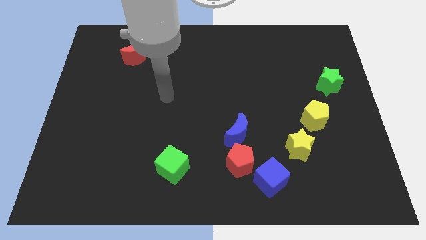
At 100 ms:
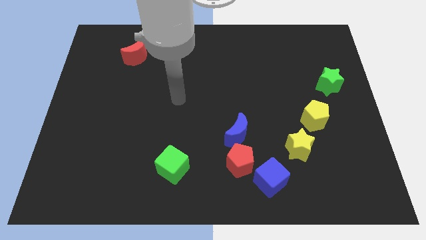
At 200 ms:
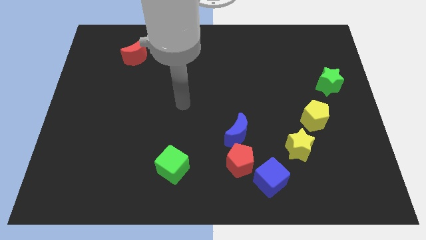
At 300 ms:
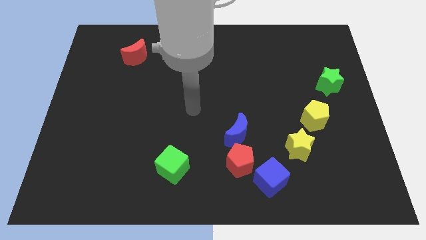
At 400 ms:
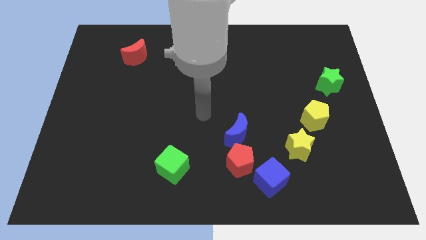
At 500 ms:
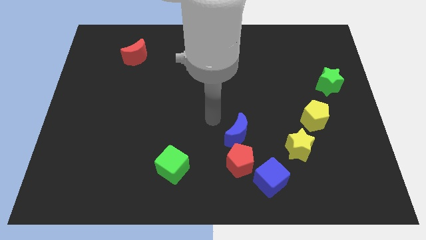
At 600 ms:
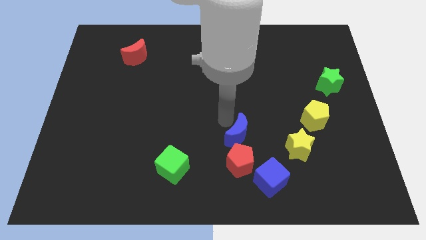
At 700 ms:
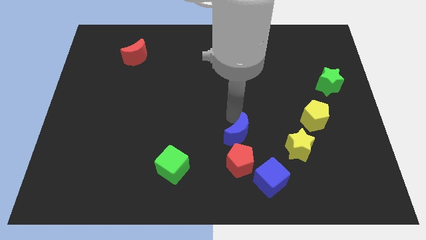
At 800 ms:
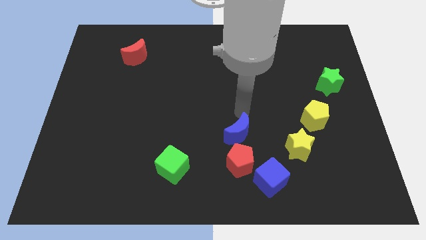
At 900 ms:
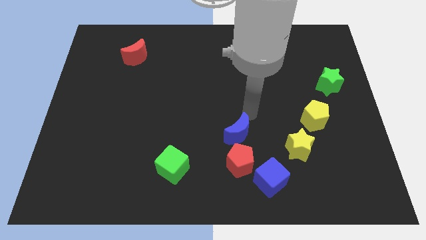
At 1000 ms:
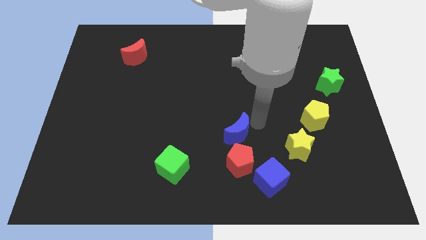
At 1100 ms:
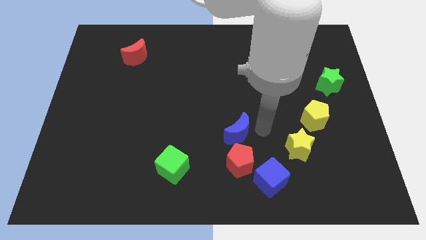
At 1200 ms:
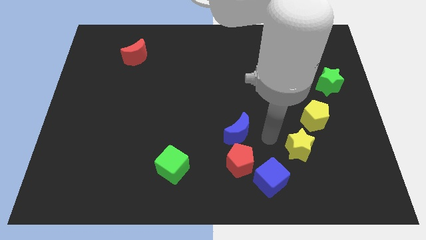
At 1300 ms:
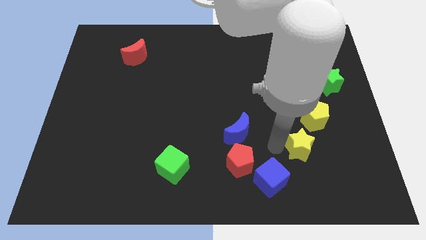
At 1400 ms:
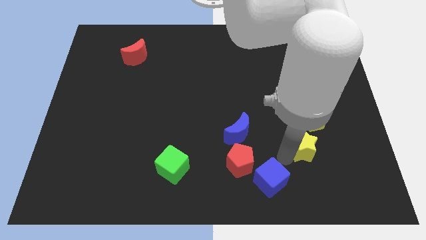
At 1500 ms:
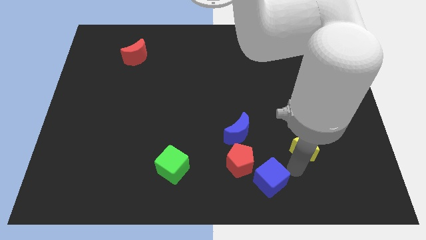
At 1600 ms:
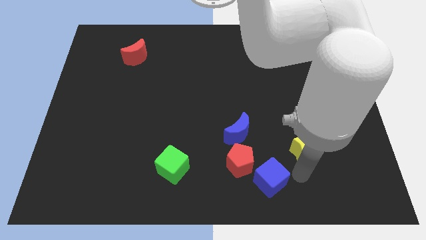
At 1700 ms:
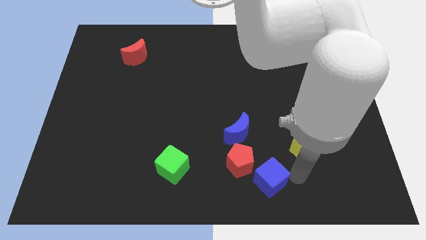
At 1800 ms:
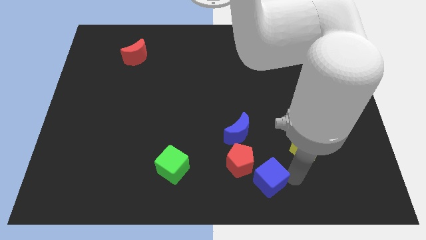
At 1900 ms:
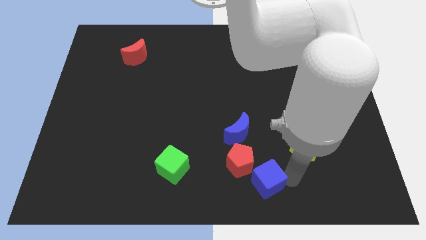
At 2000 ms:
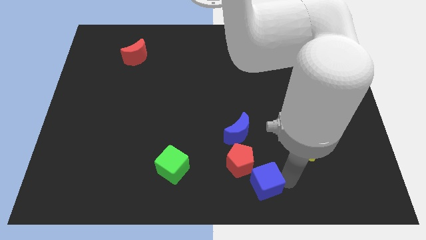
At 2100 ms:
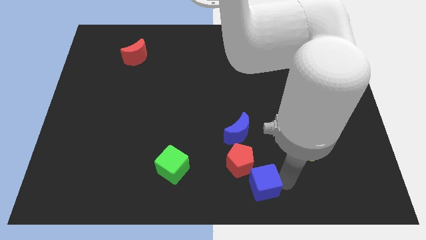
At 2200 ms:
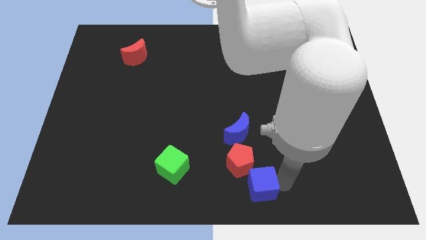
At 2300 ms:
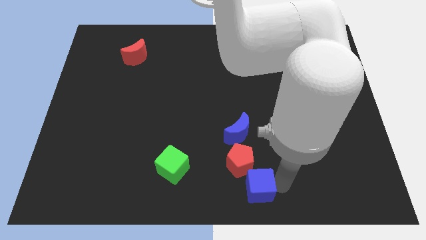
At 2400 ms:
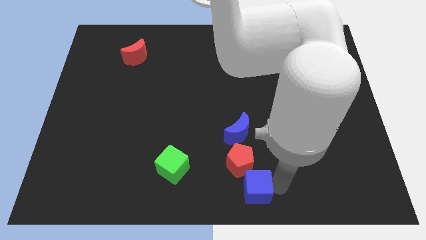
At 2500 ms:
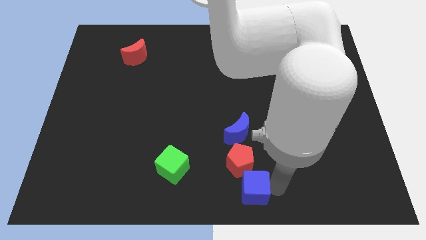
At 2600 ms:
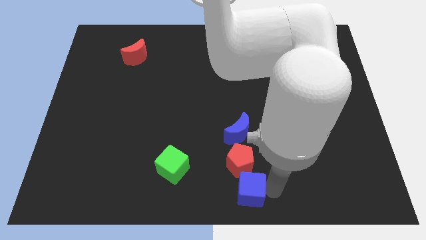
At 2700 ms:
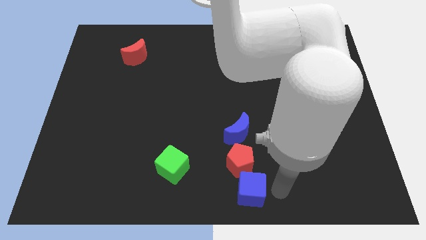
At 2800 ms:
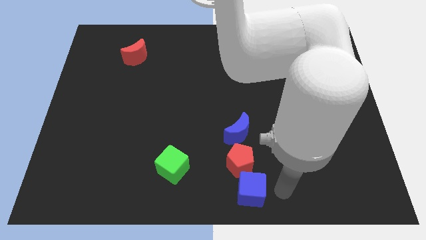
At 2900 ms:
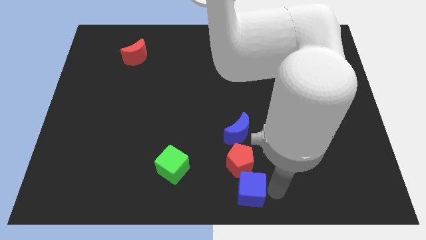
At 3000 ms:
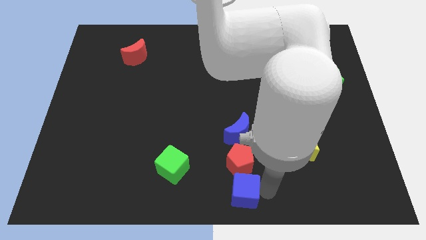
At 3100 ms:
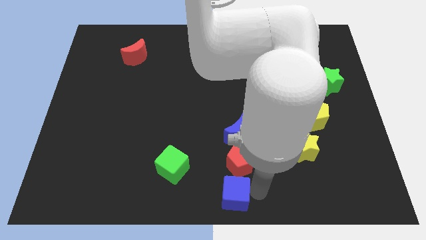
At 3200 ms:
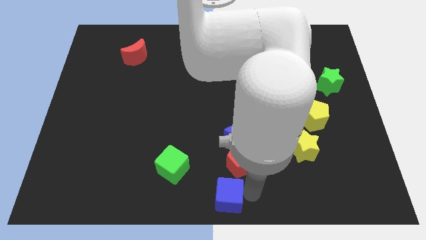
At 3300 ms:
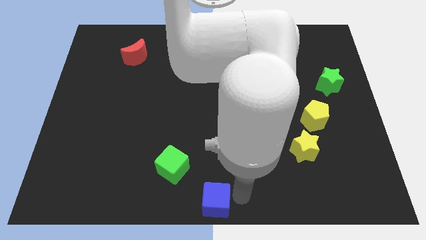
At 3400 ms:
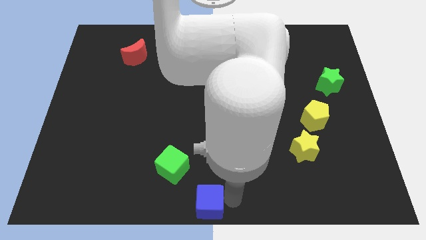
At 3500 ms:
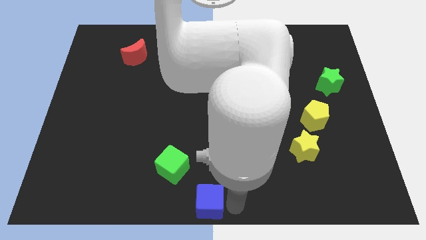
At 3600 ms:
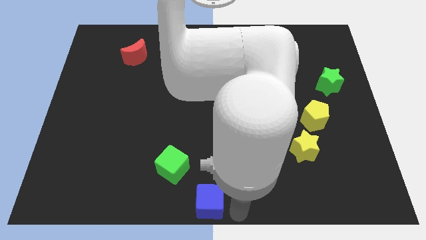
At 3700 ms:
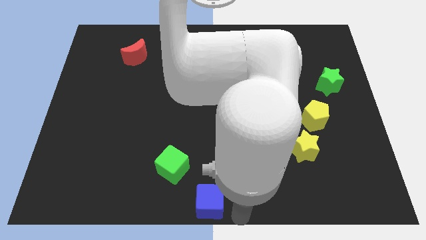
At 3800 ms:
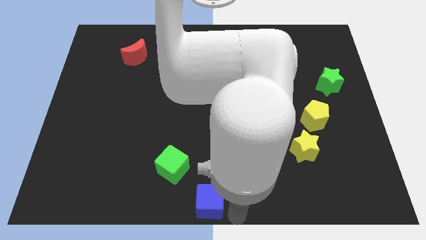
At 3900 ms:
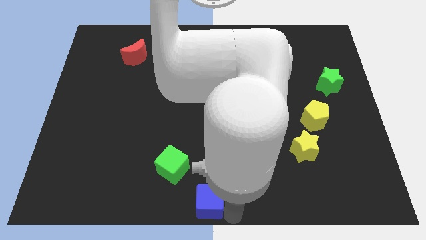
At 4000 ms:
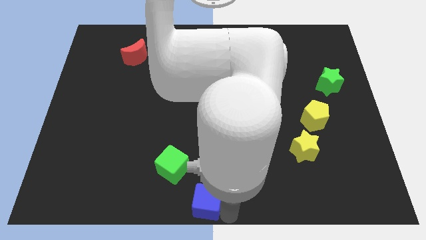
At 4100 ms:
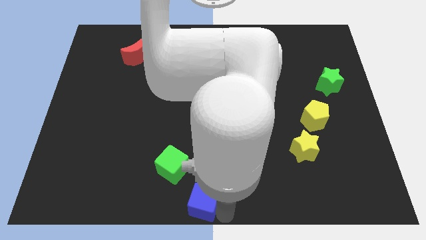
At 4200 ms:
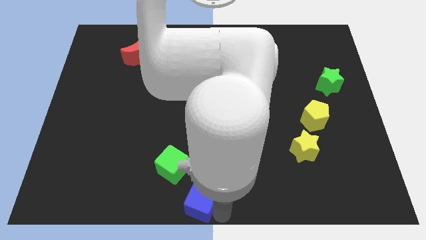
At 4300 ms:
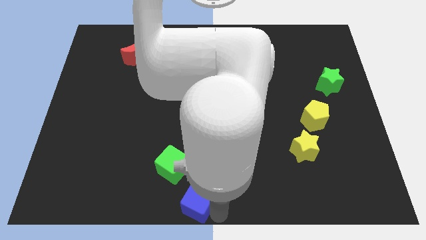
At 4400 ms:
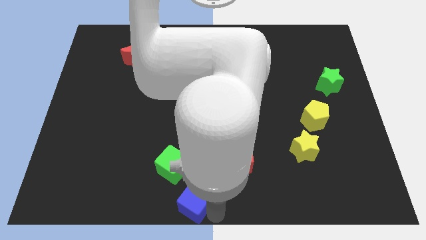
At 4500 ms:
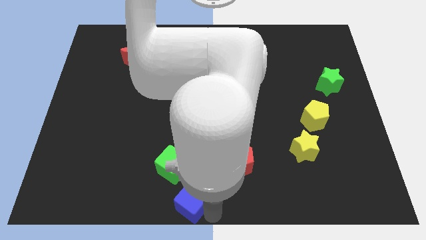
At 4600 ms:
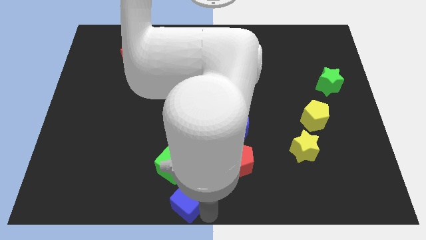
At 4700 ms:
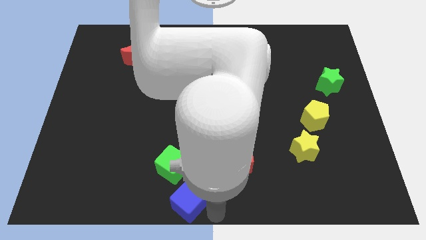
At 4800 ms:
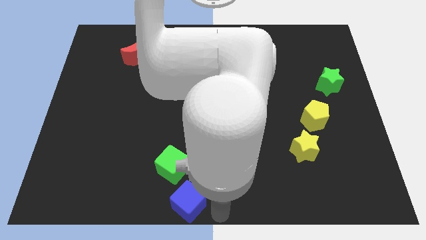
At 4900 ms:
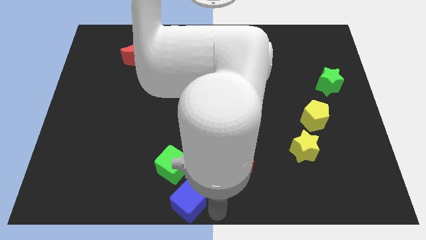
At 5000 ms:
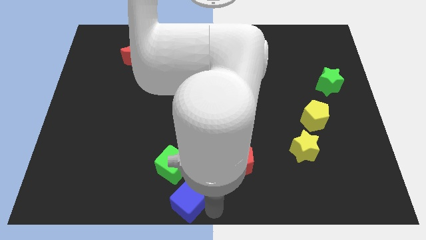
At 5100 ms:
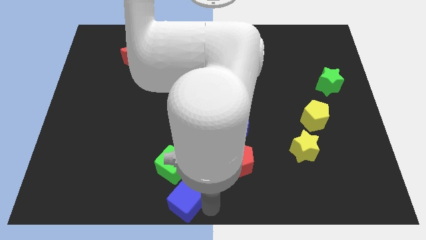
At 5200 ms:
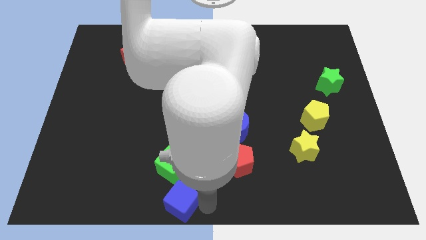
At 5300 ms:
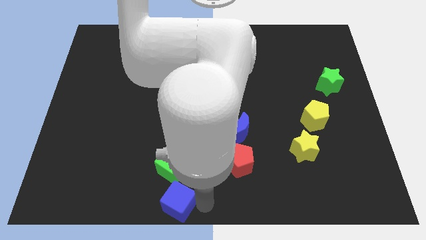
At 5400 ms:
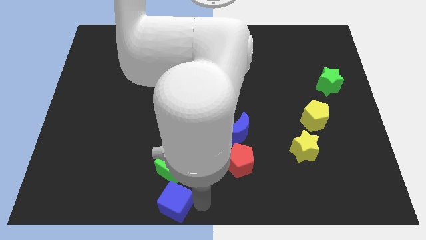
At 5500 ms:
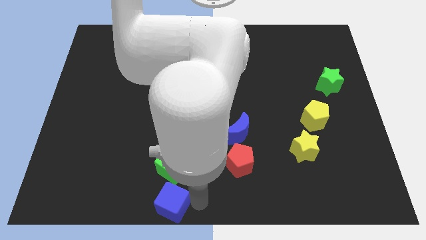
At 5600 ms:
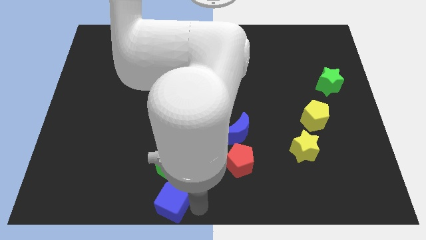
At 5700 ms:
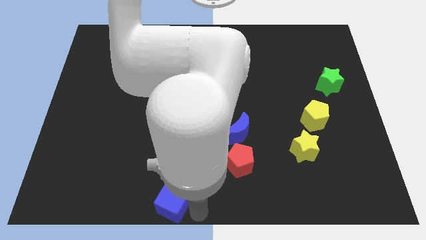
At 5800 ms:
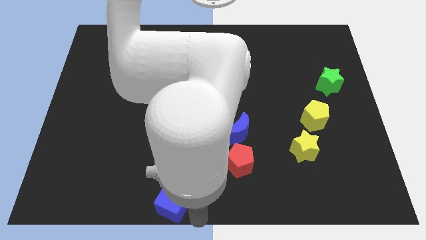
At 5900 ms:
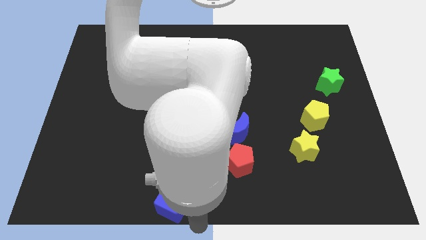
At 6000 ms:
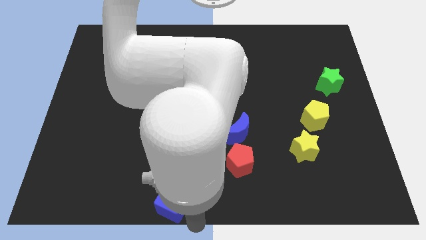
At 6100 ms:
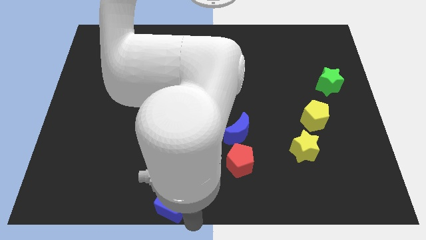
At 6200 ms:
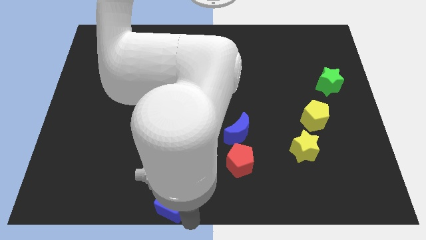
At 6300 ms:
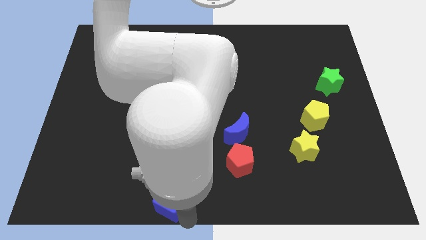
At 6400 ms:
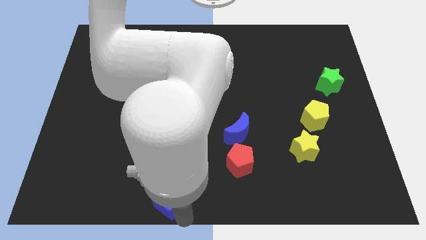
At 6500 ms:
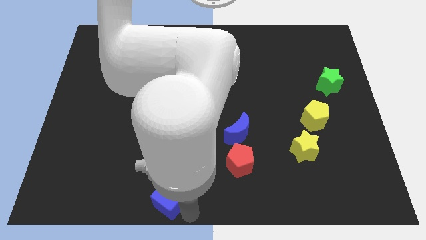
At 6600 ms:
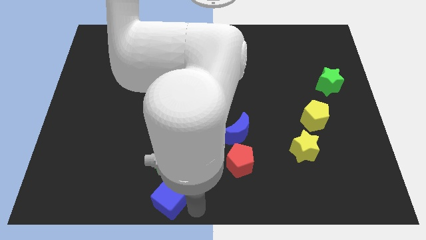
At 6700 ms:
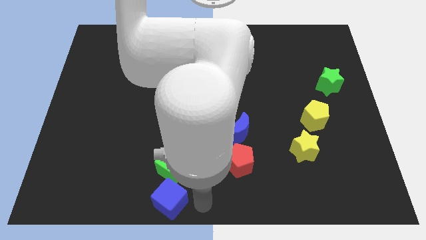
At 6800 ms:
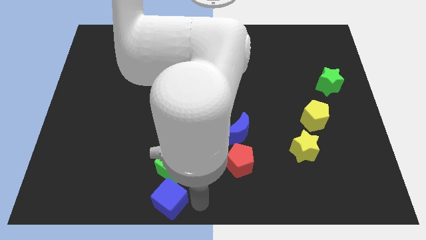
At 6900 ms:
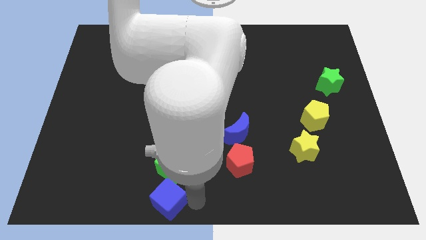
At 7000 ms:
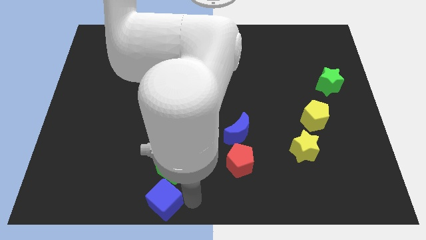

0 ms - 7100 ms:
push the blue cube to the left

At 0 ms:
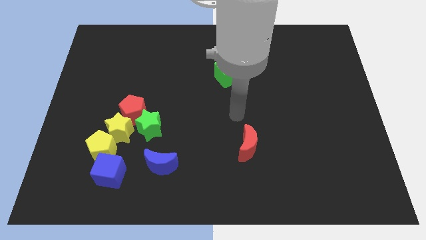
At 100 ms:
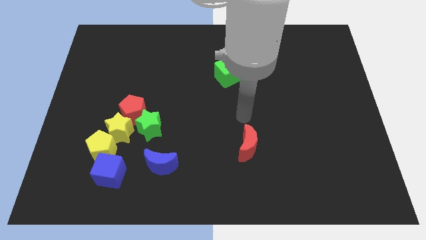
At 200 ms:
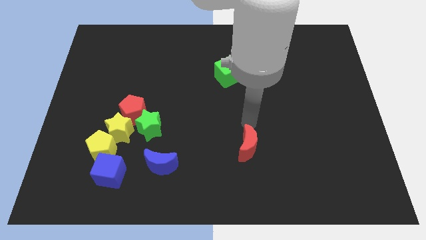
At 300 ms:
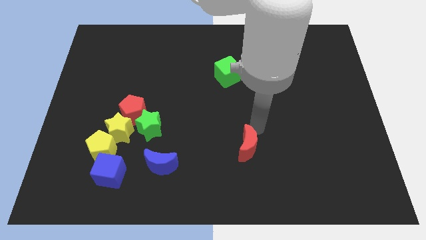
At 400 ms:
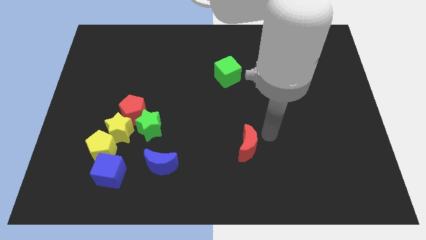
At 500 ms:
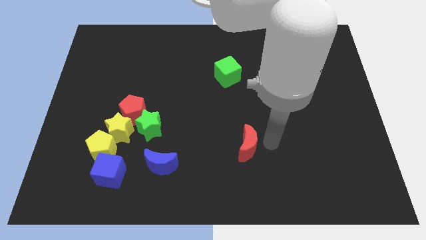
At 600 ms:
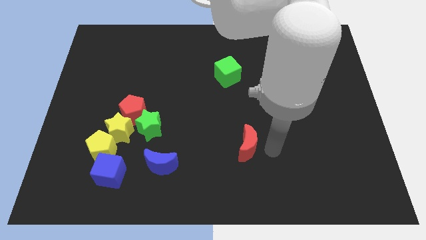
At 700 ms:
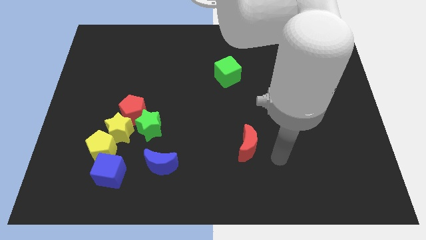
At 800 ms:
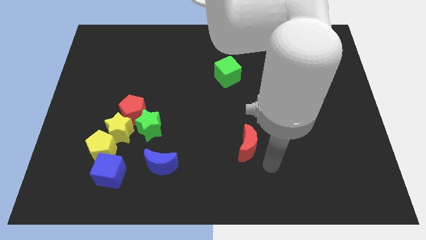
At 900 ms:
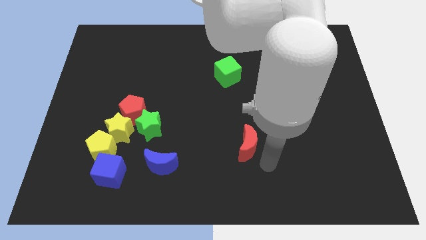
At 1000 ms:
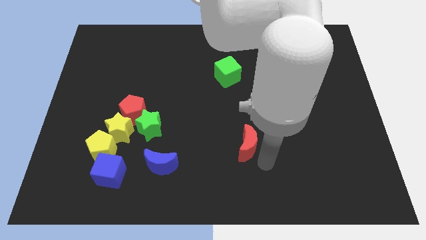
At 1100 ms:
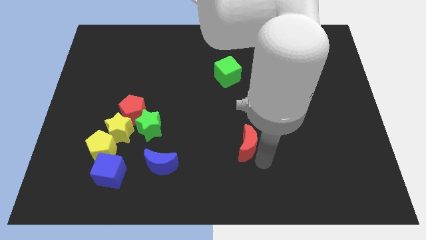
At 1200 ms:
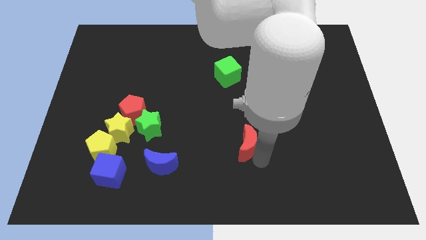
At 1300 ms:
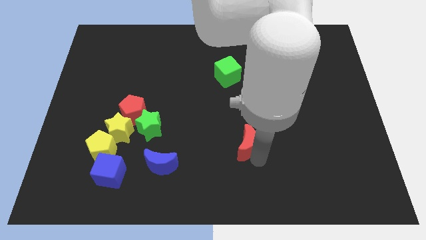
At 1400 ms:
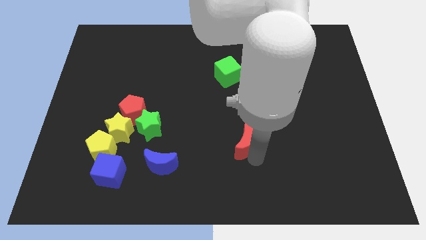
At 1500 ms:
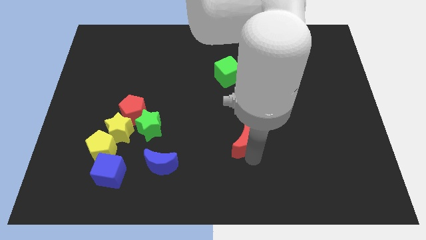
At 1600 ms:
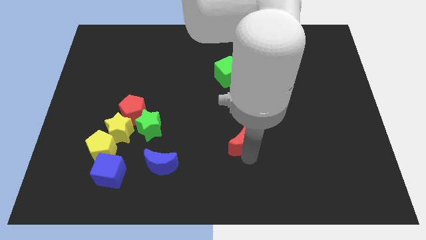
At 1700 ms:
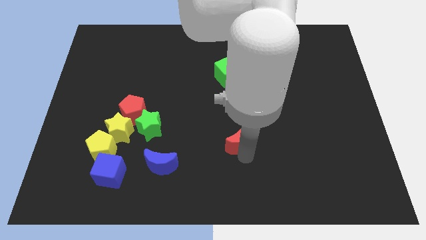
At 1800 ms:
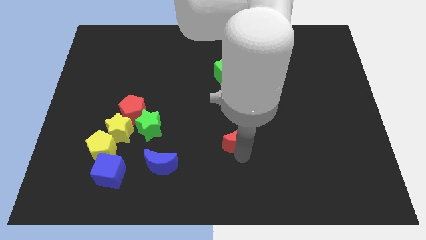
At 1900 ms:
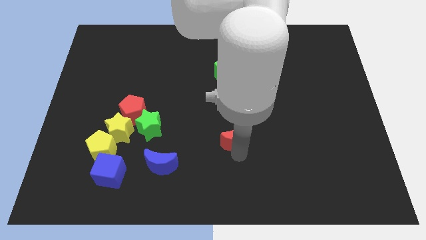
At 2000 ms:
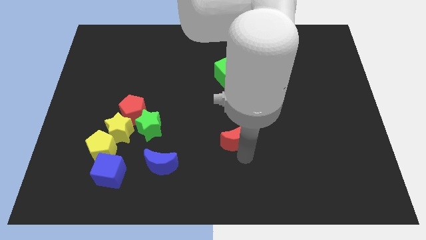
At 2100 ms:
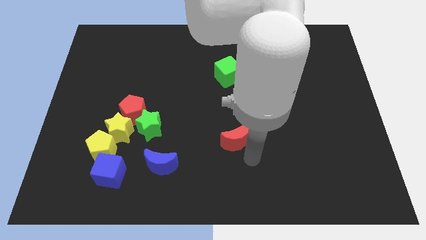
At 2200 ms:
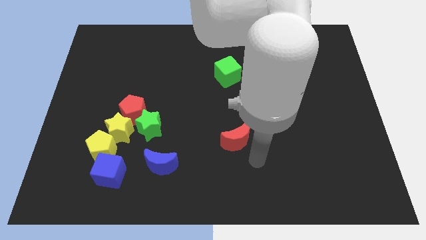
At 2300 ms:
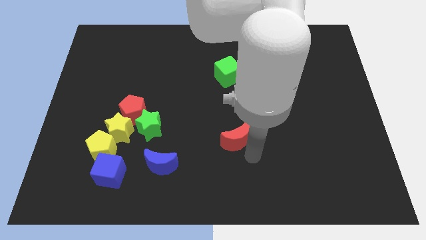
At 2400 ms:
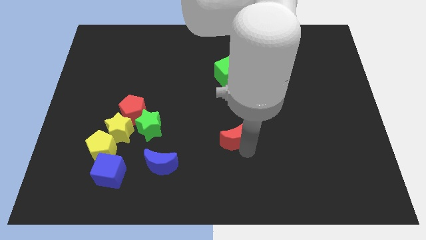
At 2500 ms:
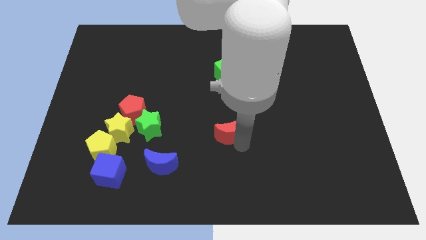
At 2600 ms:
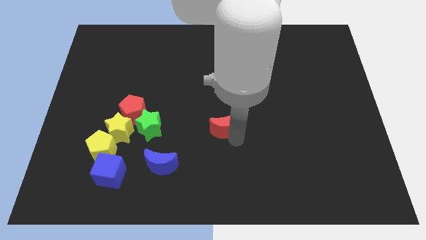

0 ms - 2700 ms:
slightly move the red moon upwards and left diagonally
